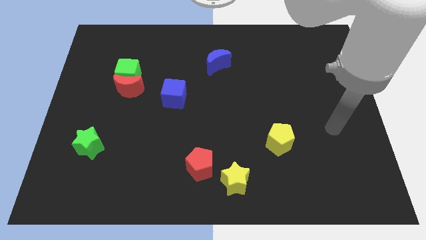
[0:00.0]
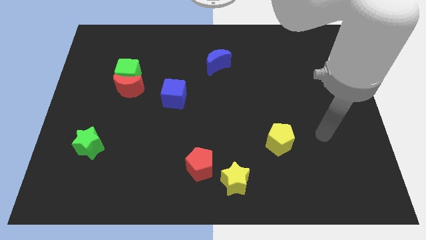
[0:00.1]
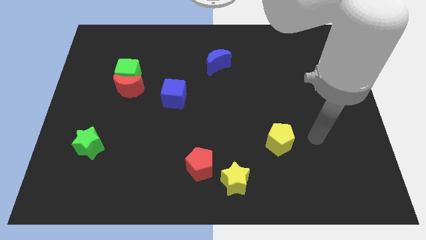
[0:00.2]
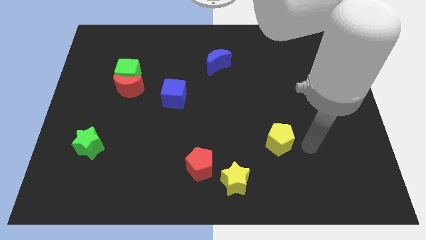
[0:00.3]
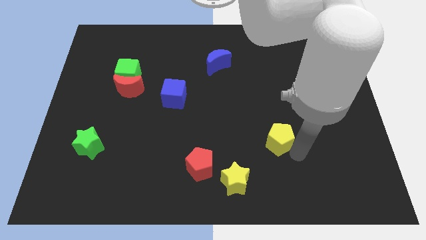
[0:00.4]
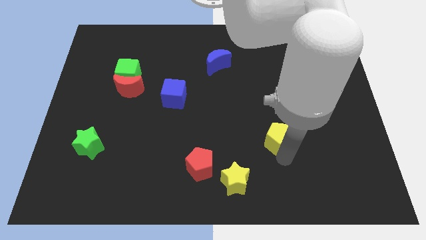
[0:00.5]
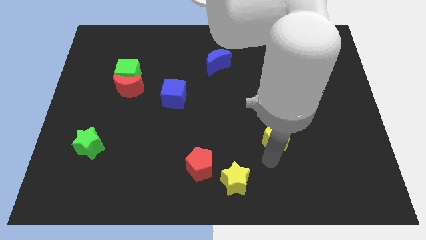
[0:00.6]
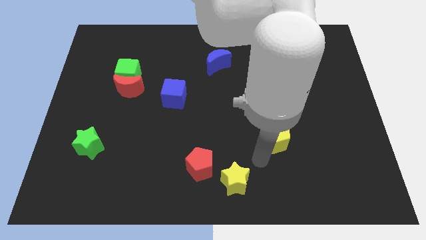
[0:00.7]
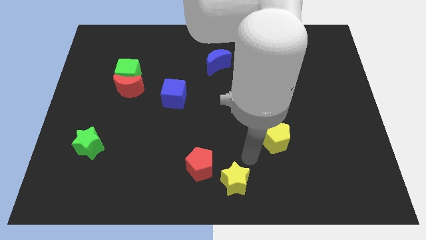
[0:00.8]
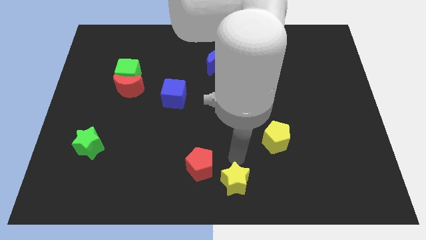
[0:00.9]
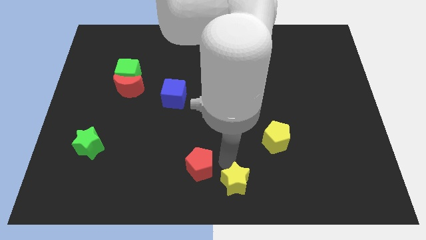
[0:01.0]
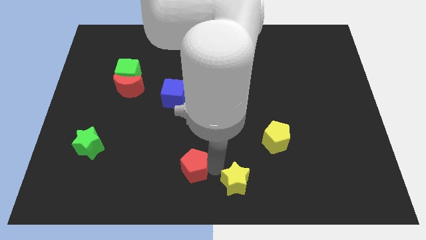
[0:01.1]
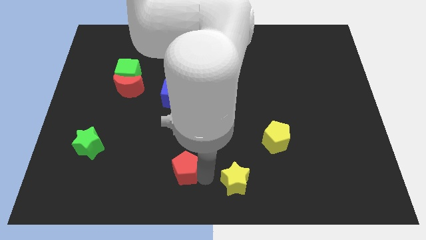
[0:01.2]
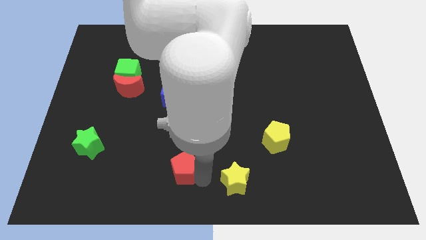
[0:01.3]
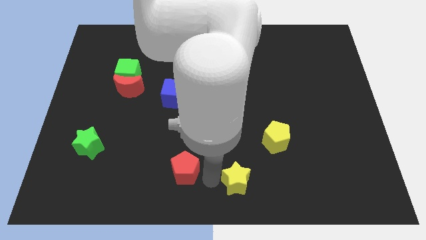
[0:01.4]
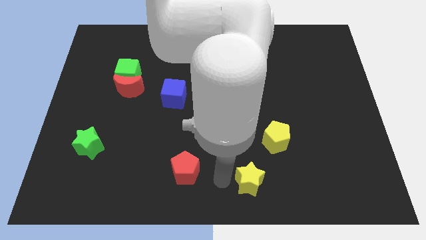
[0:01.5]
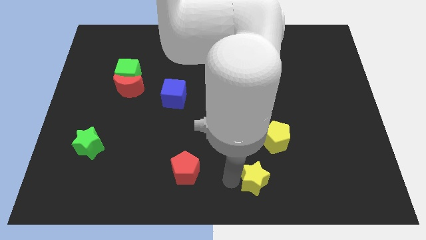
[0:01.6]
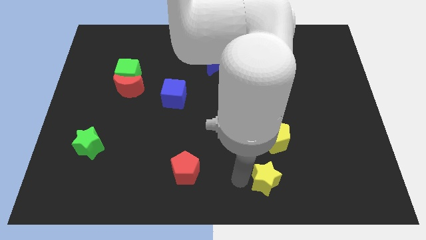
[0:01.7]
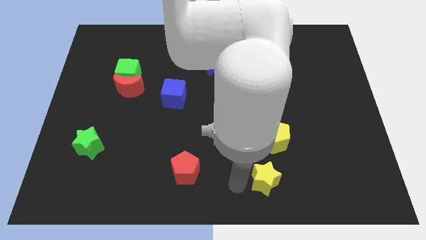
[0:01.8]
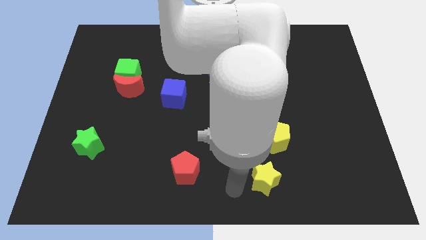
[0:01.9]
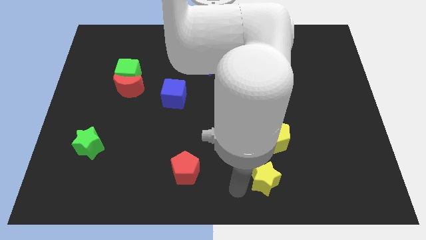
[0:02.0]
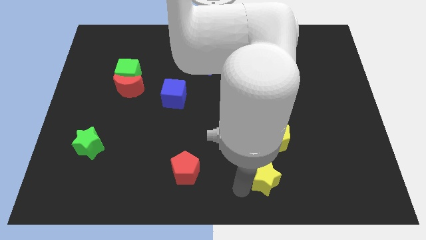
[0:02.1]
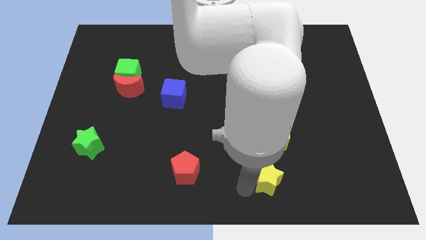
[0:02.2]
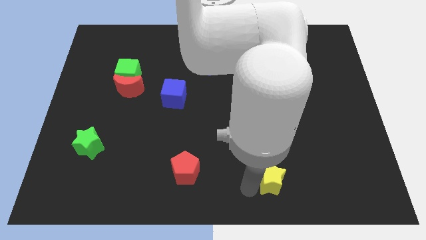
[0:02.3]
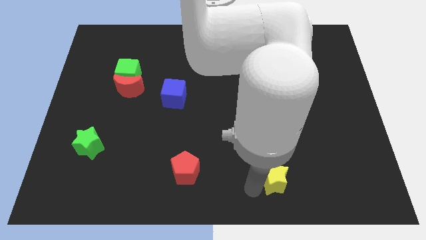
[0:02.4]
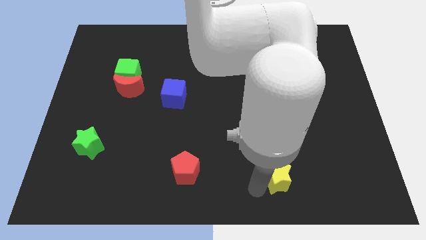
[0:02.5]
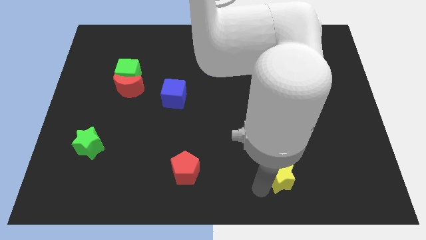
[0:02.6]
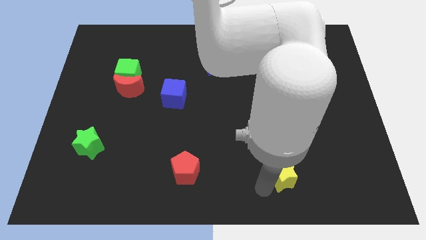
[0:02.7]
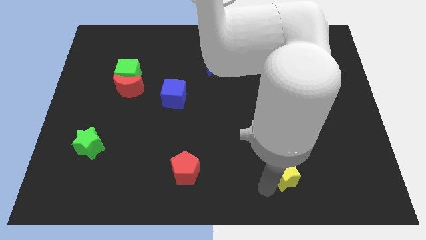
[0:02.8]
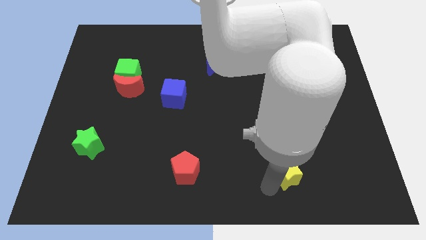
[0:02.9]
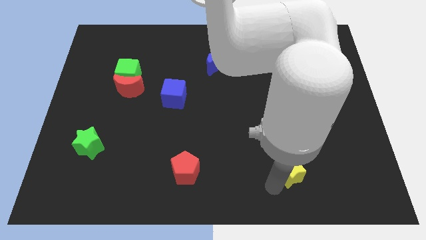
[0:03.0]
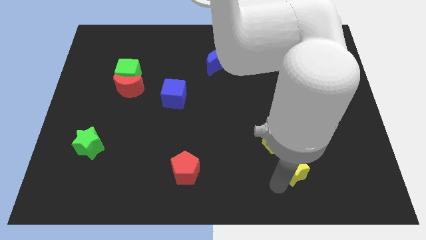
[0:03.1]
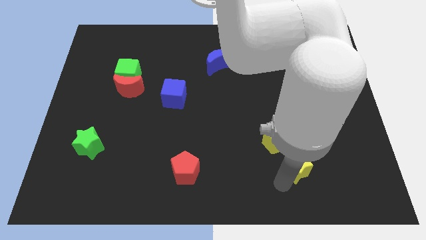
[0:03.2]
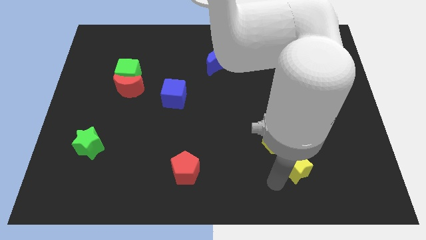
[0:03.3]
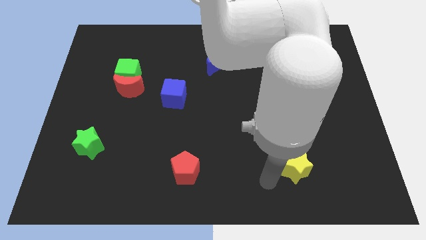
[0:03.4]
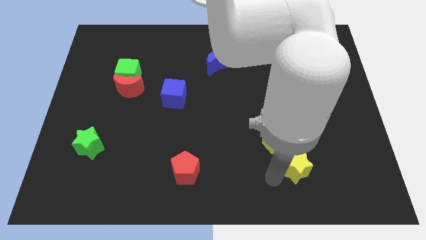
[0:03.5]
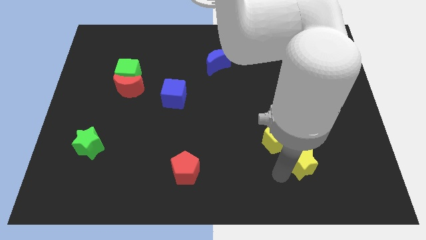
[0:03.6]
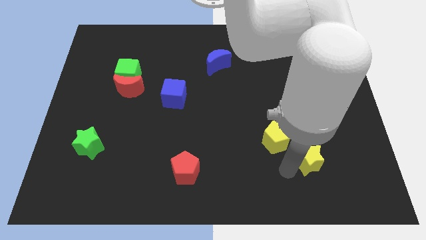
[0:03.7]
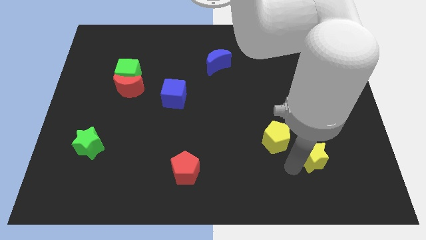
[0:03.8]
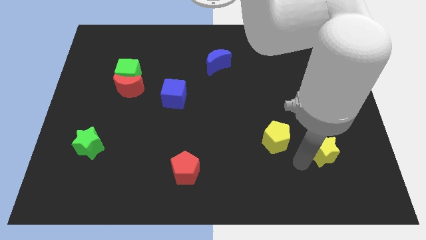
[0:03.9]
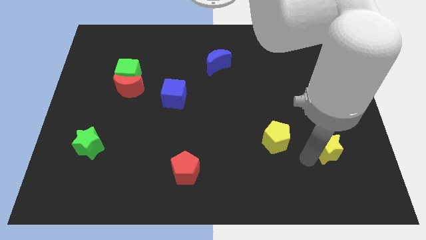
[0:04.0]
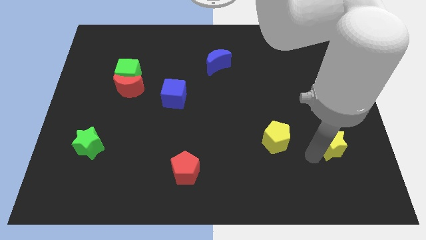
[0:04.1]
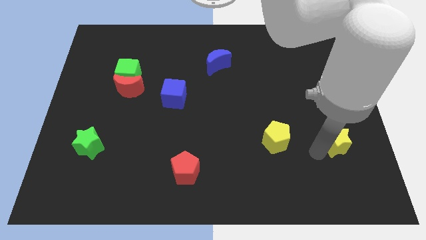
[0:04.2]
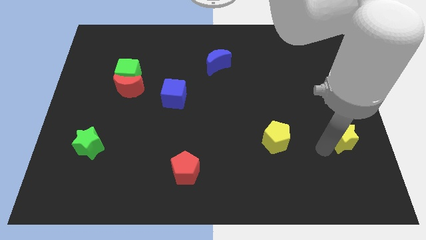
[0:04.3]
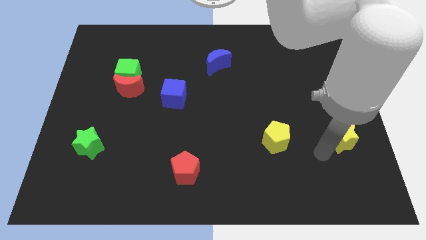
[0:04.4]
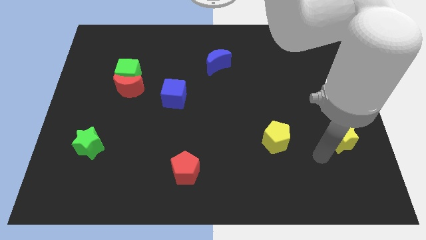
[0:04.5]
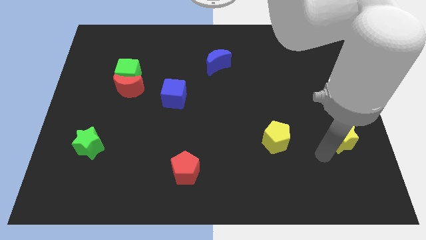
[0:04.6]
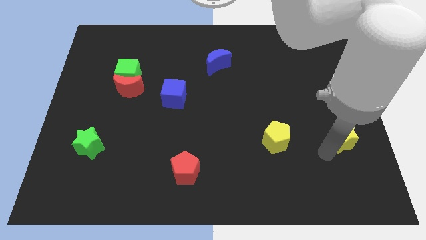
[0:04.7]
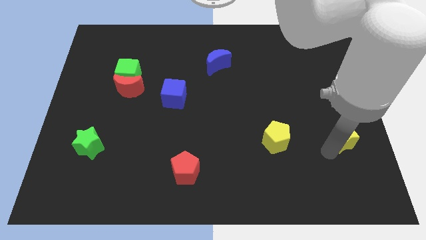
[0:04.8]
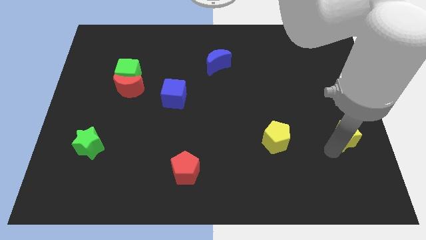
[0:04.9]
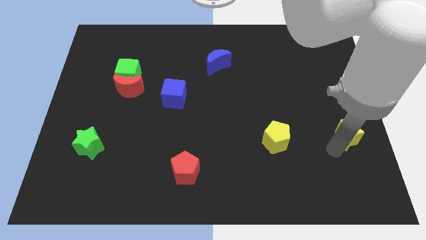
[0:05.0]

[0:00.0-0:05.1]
slide the yellow star to the right side

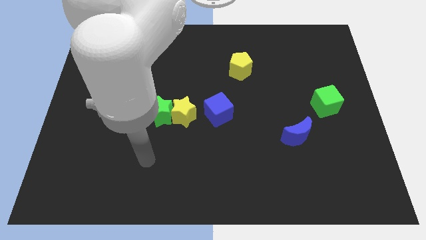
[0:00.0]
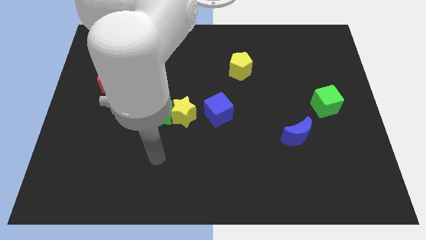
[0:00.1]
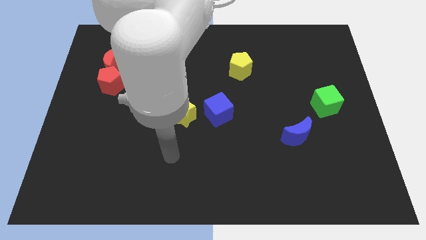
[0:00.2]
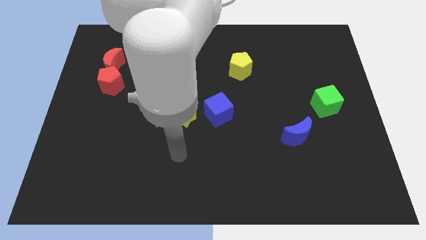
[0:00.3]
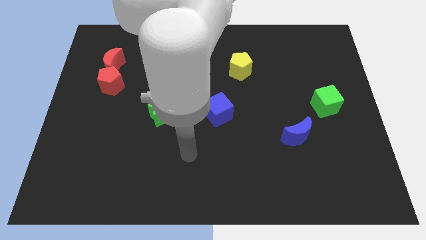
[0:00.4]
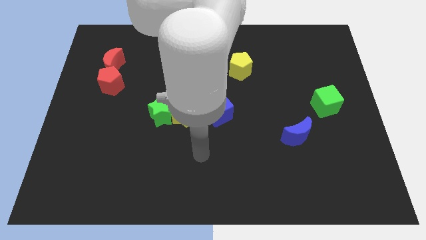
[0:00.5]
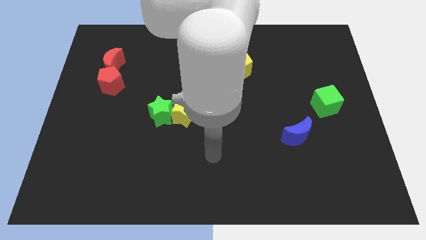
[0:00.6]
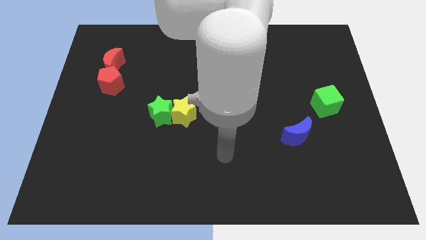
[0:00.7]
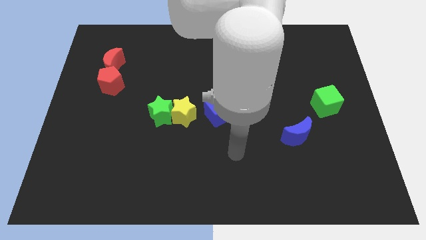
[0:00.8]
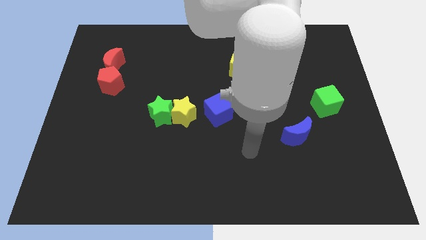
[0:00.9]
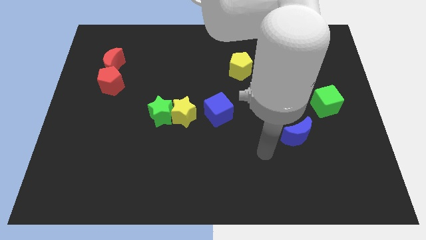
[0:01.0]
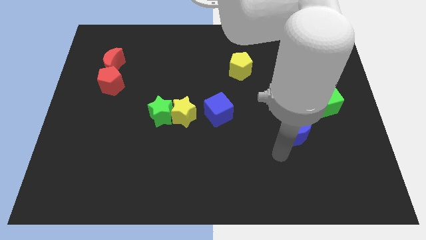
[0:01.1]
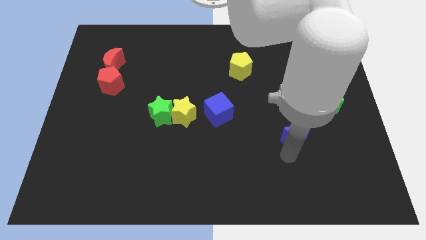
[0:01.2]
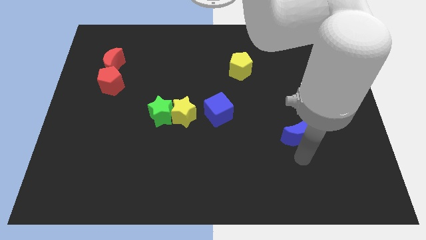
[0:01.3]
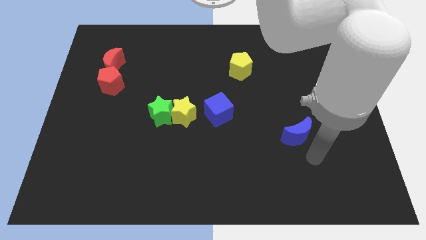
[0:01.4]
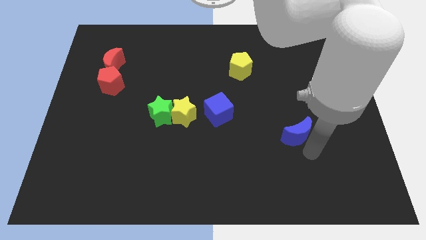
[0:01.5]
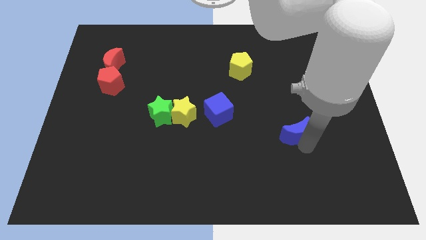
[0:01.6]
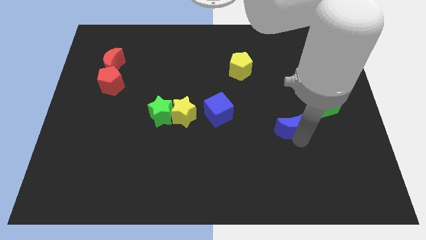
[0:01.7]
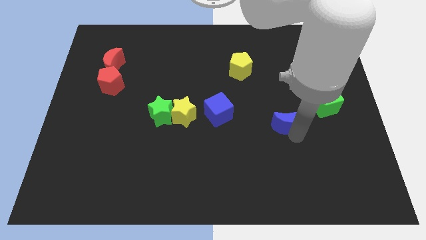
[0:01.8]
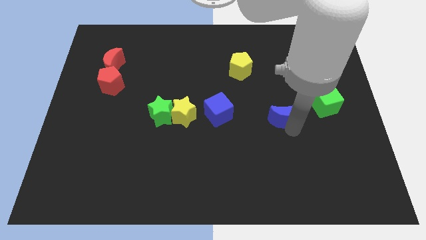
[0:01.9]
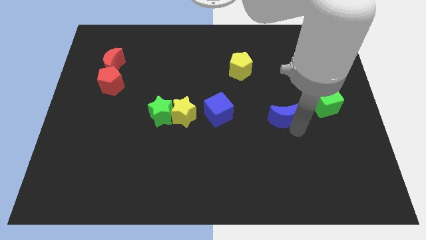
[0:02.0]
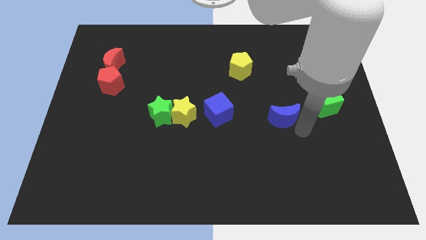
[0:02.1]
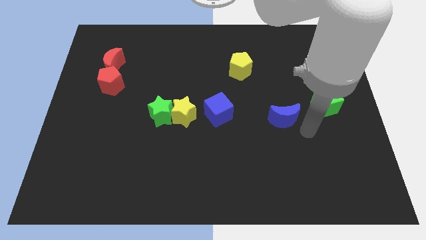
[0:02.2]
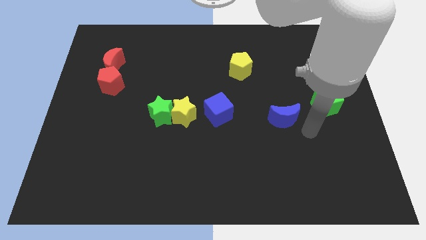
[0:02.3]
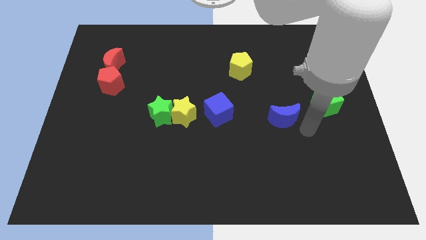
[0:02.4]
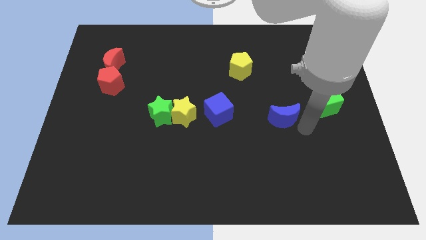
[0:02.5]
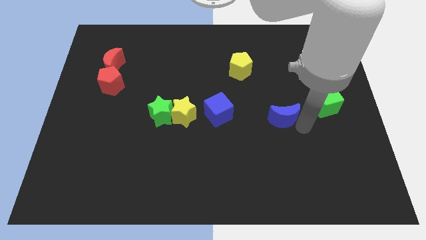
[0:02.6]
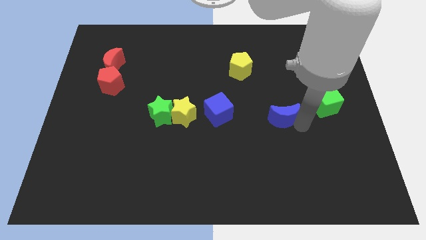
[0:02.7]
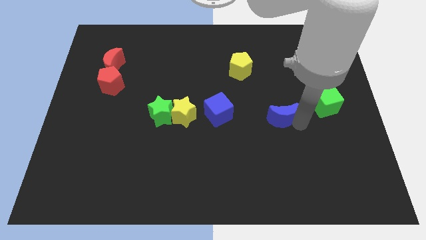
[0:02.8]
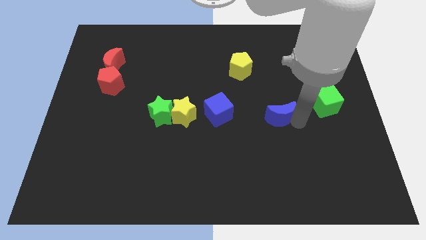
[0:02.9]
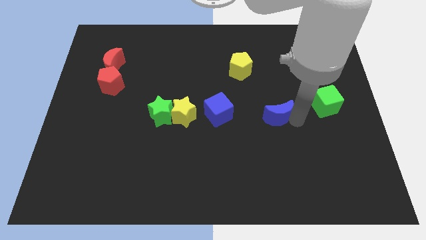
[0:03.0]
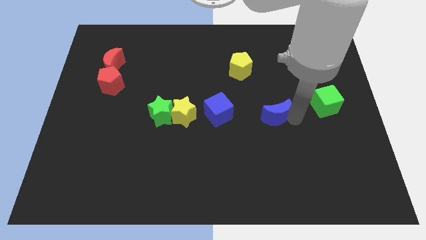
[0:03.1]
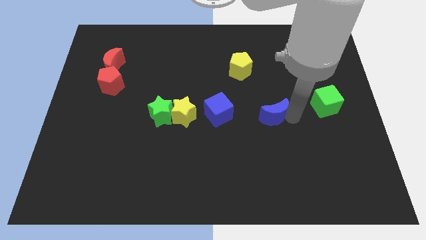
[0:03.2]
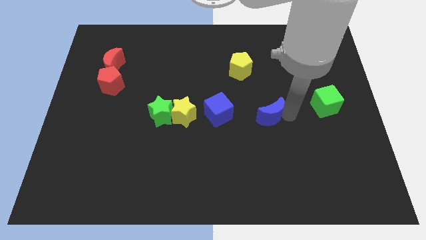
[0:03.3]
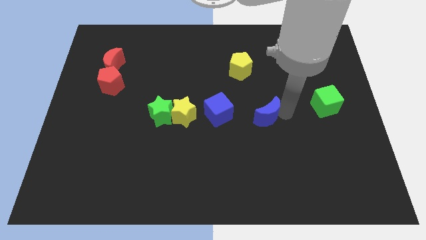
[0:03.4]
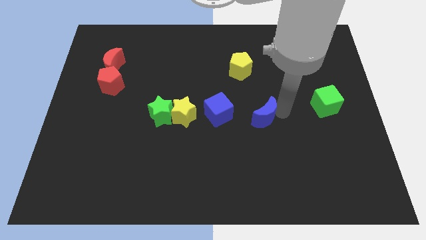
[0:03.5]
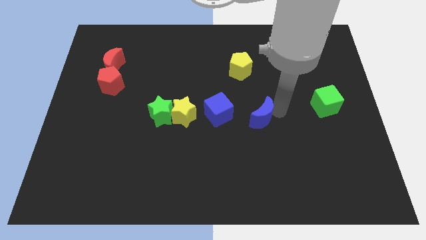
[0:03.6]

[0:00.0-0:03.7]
push the blue moon to the middle
